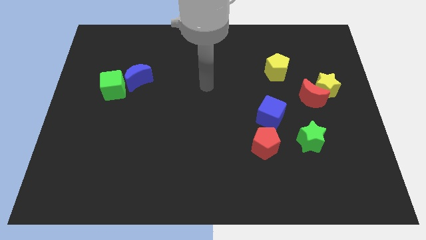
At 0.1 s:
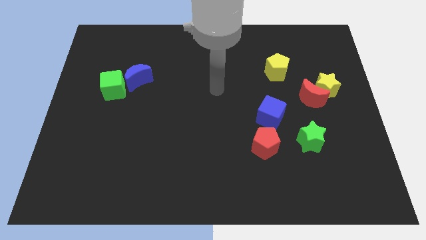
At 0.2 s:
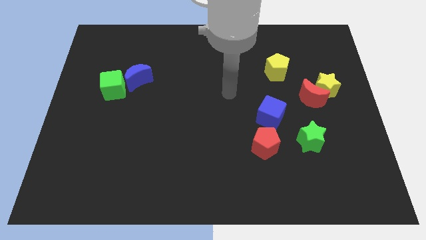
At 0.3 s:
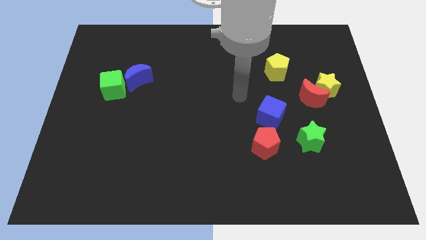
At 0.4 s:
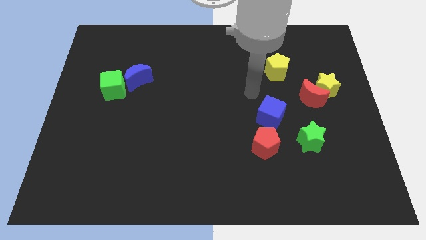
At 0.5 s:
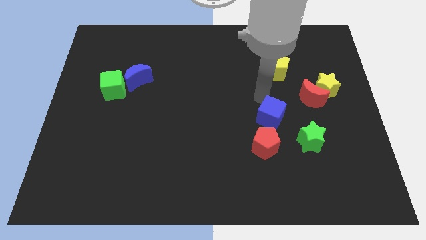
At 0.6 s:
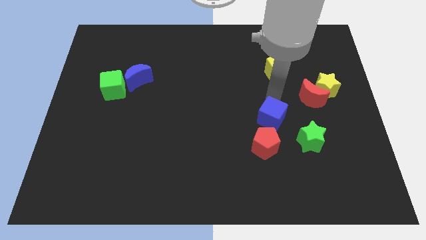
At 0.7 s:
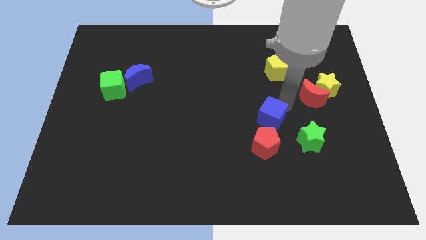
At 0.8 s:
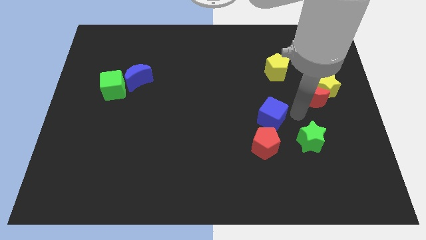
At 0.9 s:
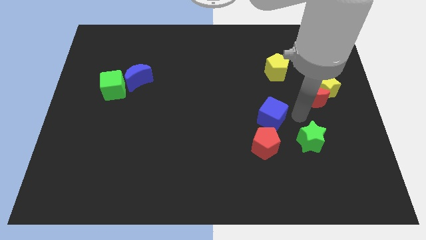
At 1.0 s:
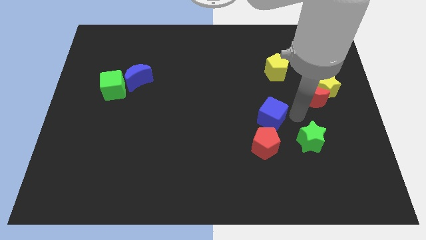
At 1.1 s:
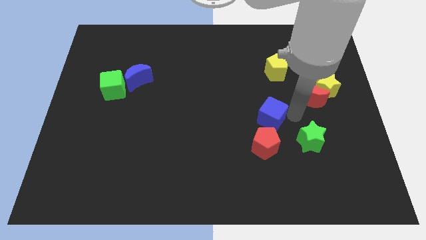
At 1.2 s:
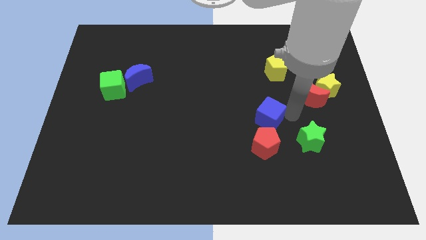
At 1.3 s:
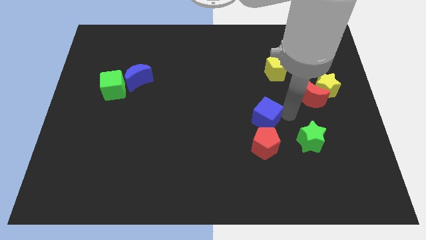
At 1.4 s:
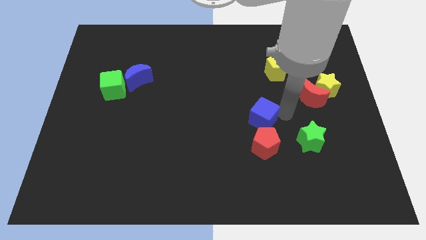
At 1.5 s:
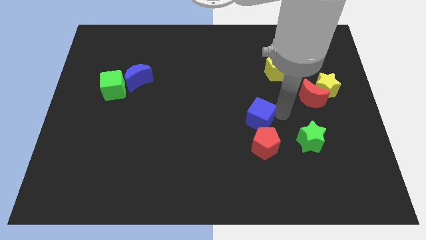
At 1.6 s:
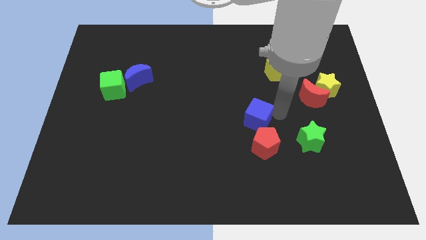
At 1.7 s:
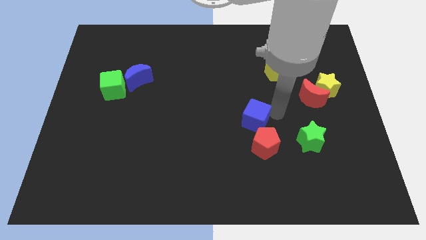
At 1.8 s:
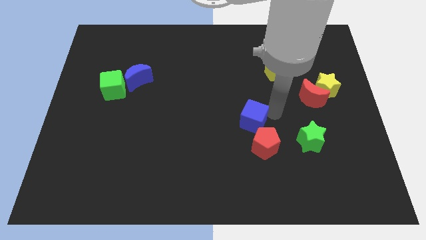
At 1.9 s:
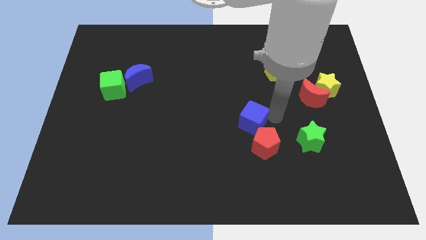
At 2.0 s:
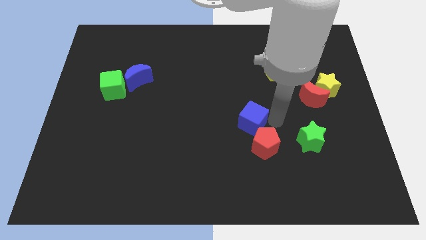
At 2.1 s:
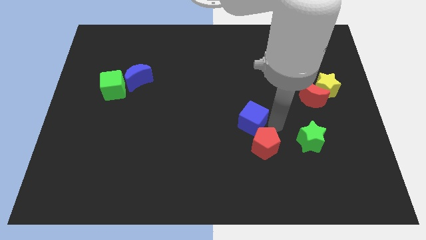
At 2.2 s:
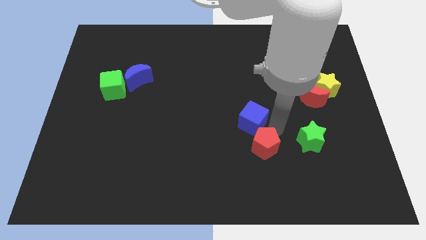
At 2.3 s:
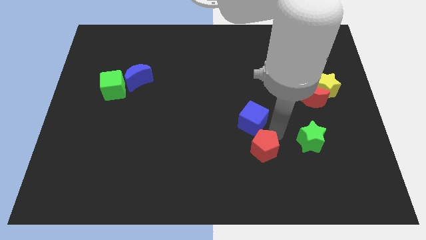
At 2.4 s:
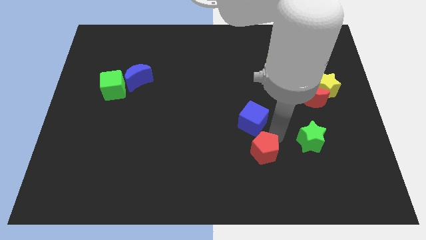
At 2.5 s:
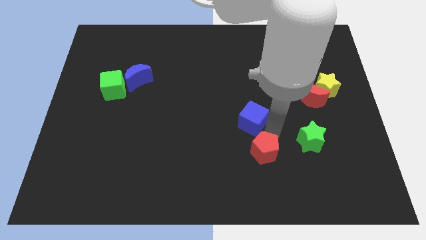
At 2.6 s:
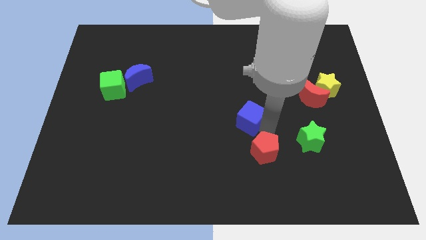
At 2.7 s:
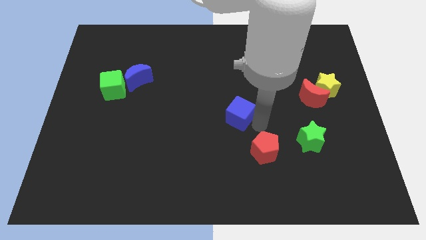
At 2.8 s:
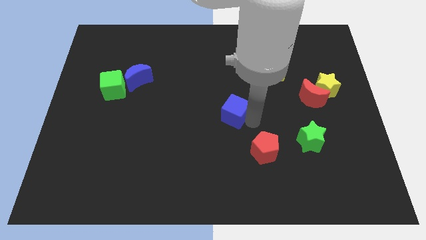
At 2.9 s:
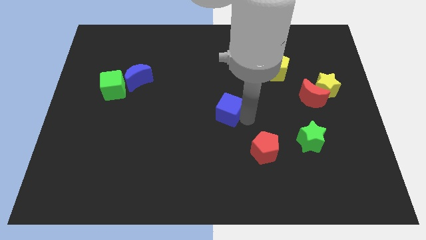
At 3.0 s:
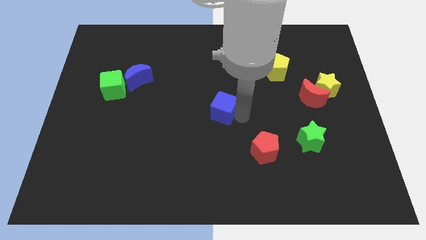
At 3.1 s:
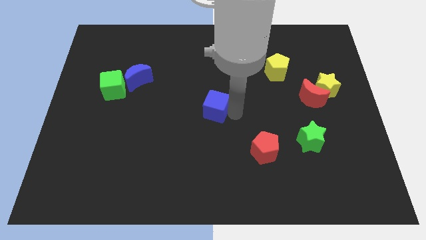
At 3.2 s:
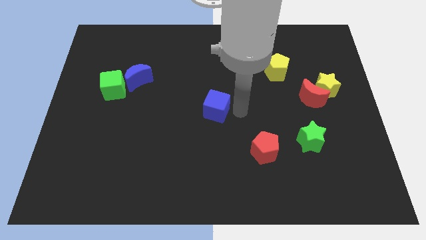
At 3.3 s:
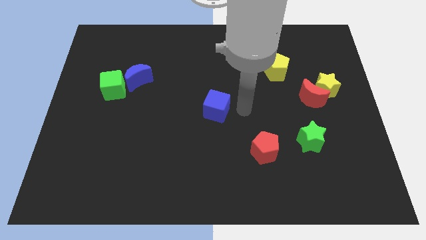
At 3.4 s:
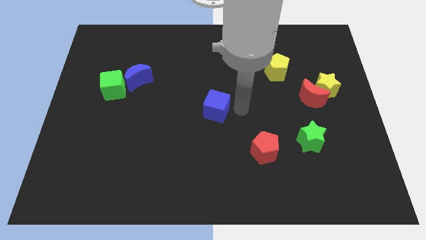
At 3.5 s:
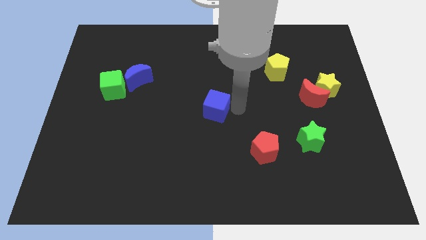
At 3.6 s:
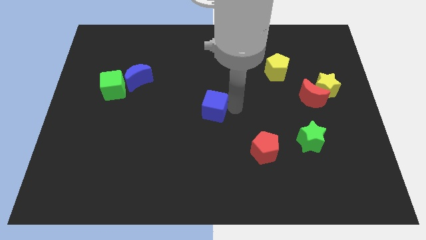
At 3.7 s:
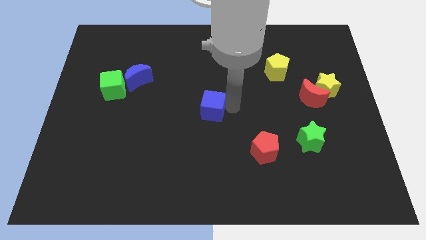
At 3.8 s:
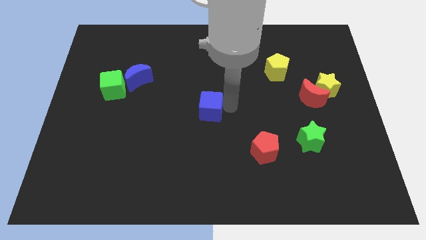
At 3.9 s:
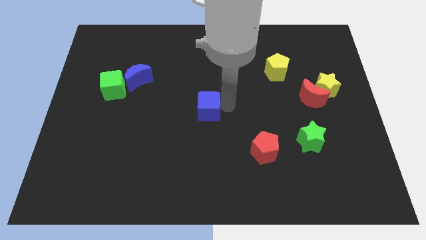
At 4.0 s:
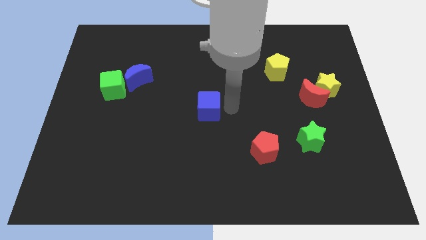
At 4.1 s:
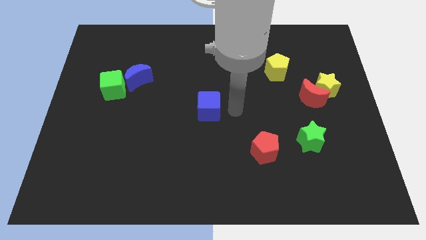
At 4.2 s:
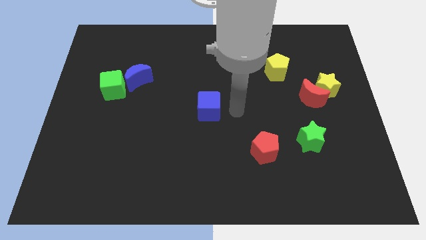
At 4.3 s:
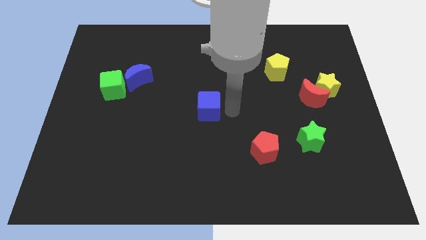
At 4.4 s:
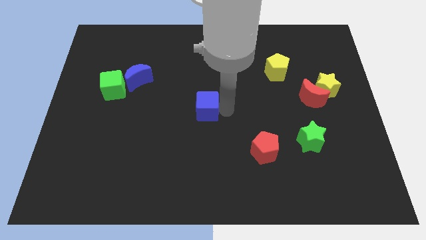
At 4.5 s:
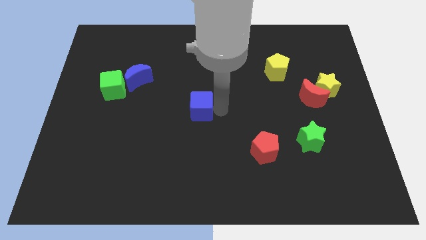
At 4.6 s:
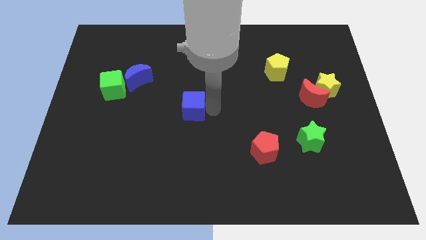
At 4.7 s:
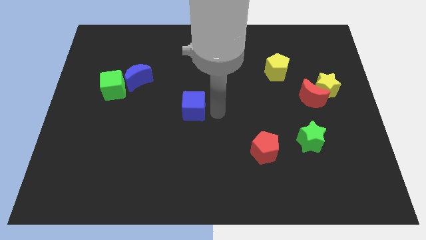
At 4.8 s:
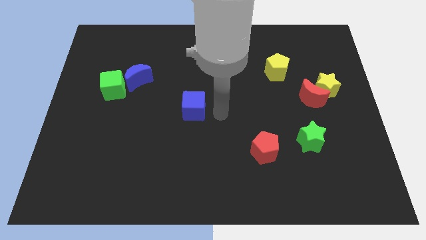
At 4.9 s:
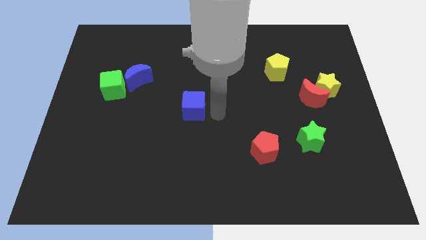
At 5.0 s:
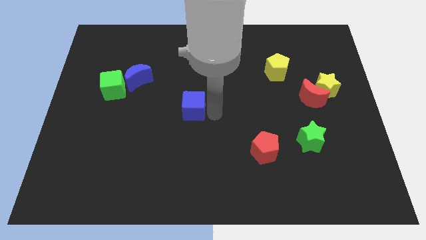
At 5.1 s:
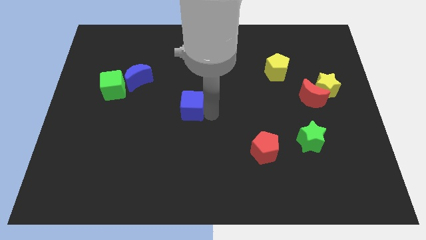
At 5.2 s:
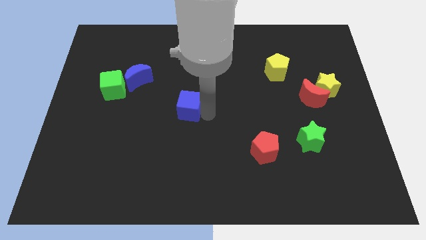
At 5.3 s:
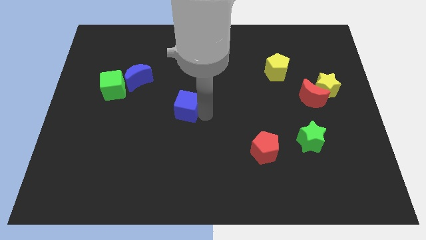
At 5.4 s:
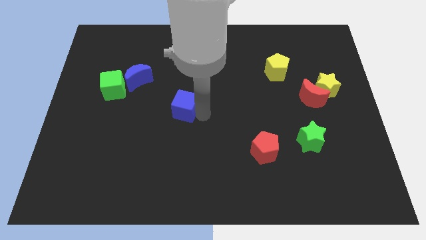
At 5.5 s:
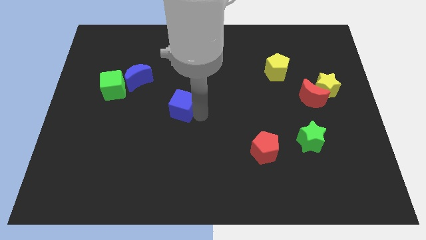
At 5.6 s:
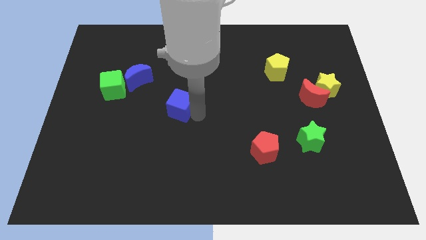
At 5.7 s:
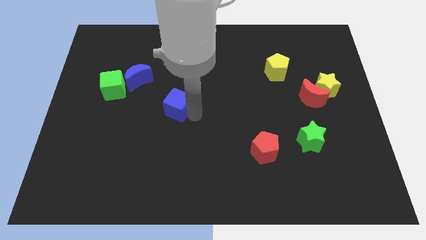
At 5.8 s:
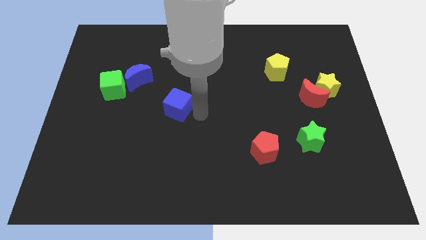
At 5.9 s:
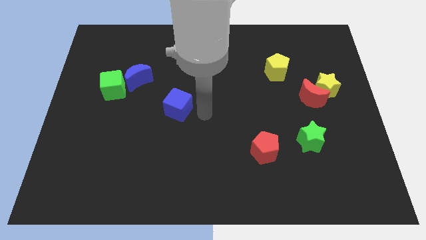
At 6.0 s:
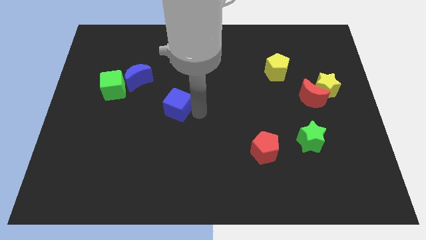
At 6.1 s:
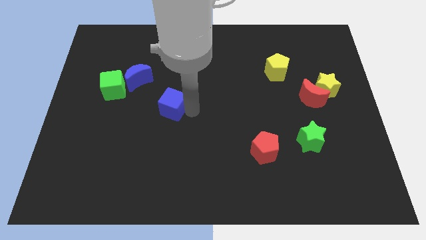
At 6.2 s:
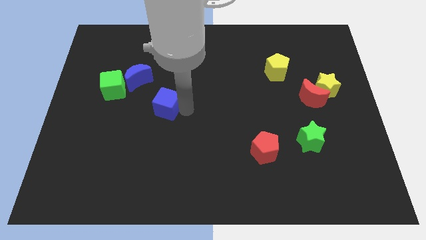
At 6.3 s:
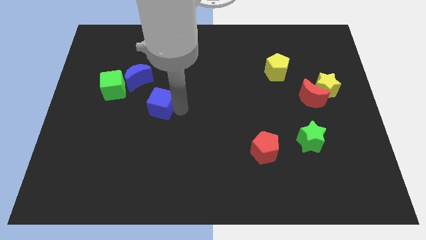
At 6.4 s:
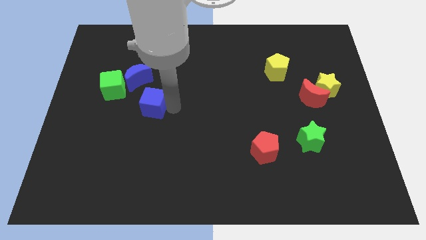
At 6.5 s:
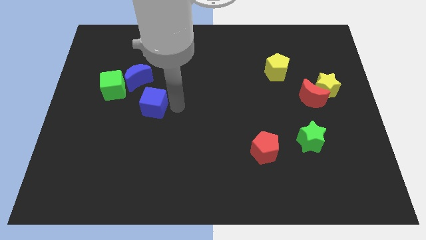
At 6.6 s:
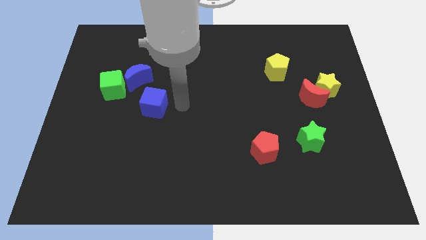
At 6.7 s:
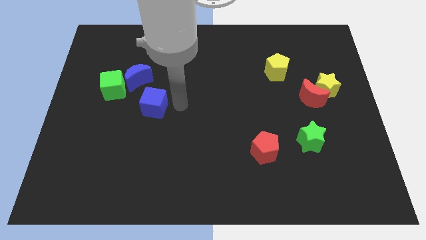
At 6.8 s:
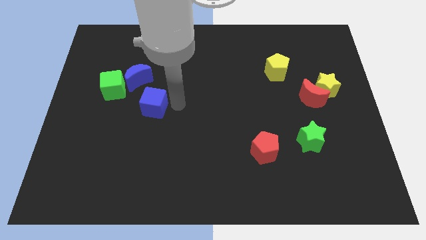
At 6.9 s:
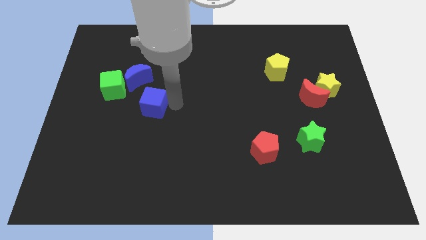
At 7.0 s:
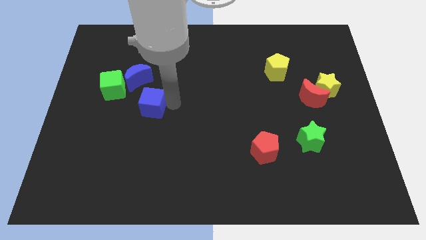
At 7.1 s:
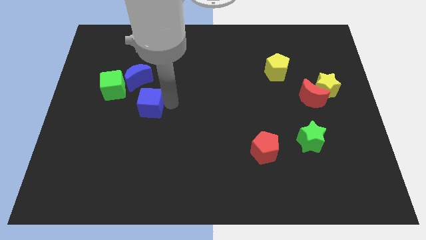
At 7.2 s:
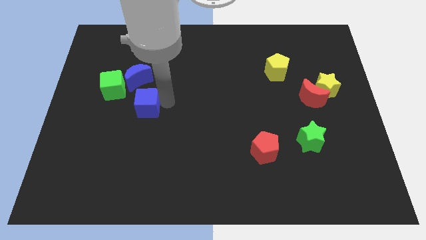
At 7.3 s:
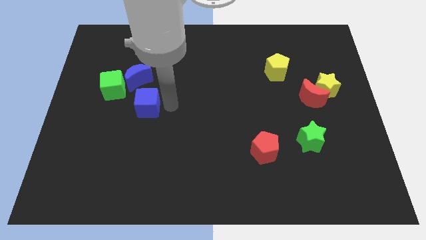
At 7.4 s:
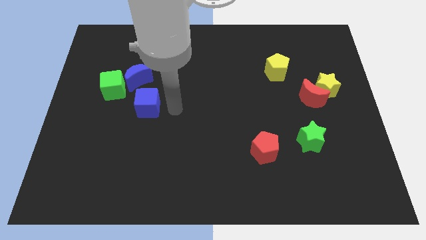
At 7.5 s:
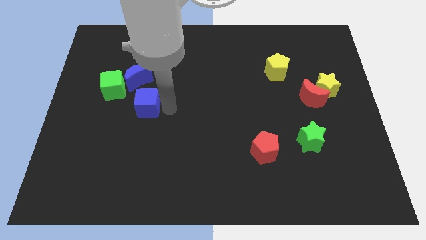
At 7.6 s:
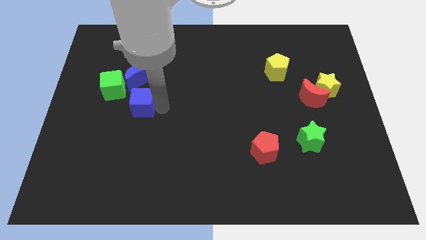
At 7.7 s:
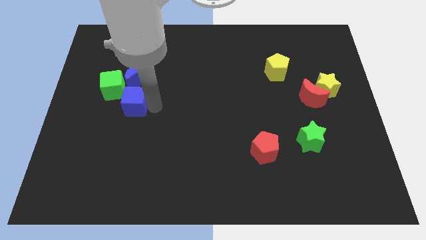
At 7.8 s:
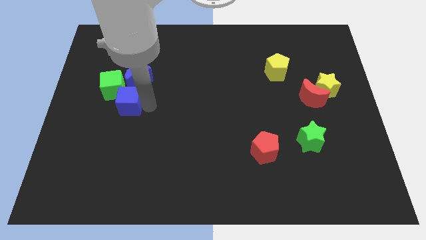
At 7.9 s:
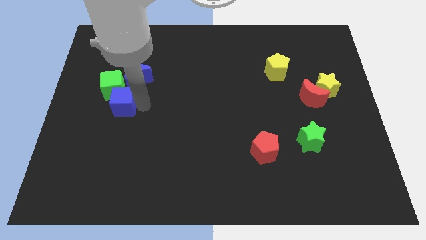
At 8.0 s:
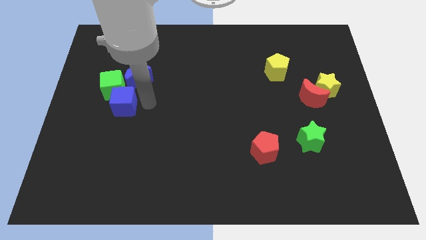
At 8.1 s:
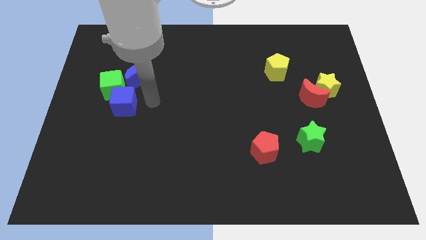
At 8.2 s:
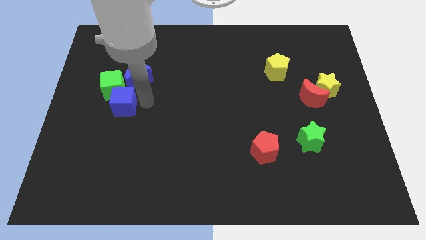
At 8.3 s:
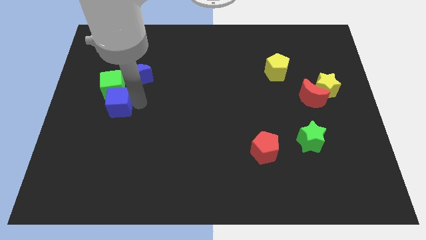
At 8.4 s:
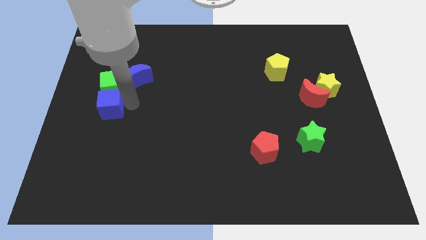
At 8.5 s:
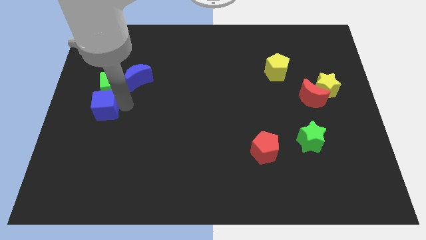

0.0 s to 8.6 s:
move the blue cube to the center left
